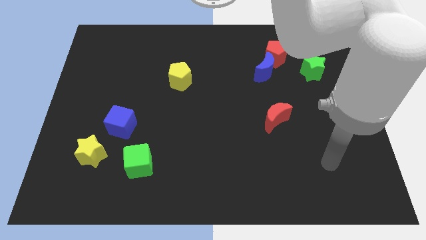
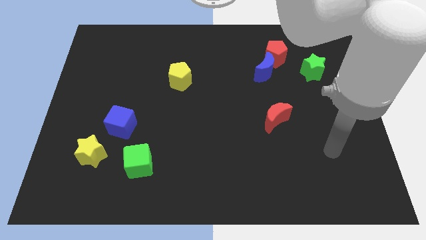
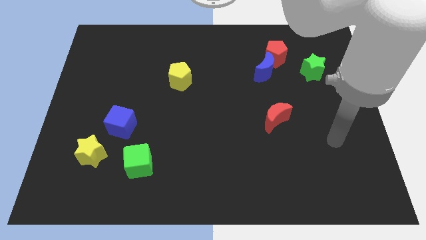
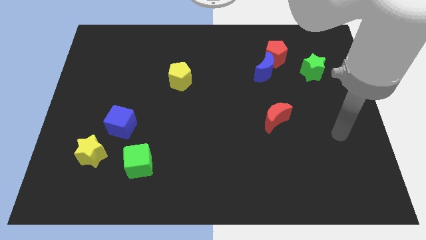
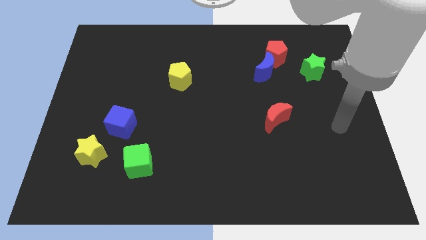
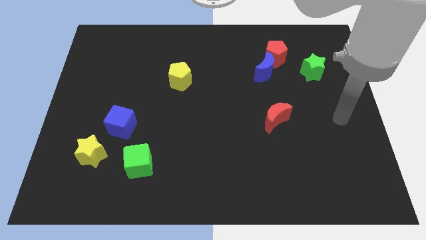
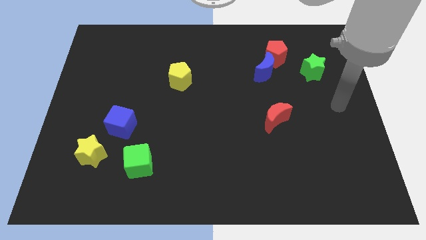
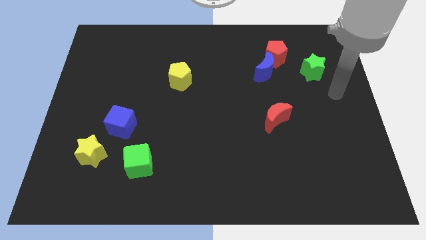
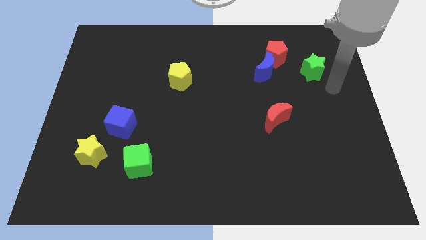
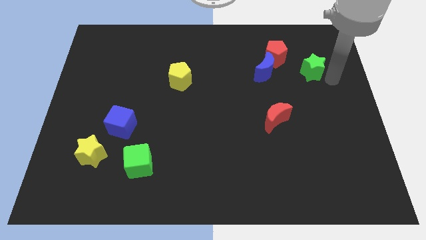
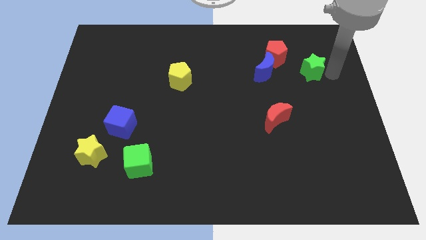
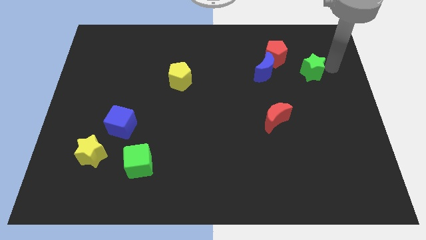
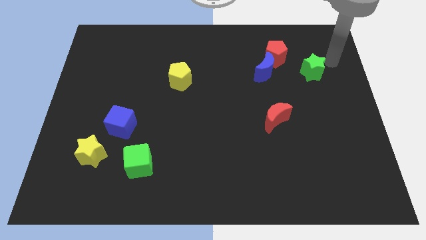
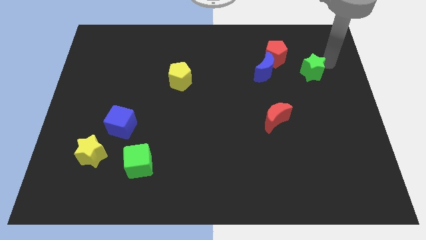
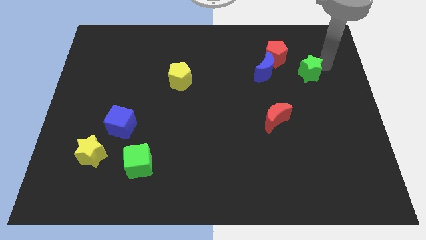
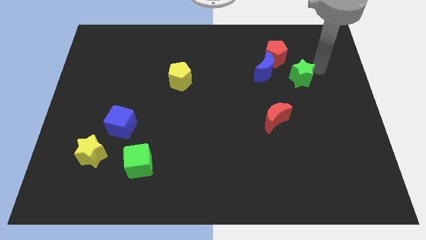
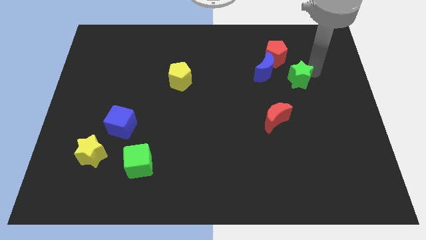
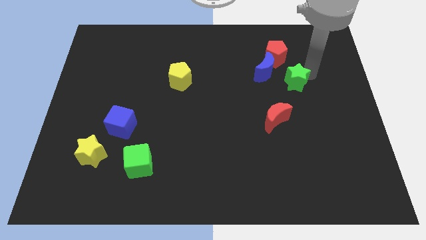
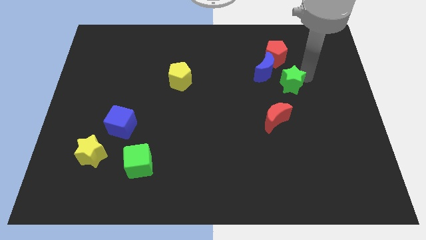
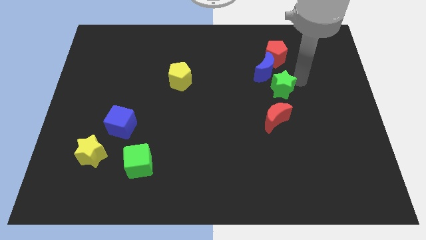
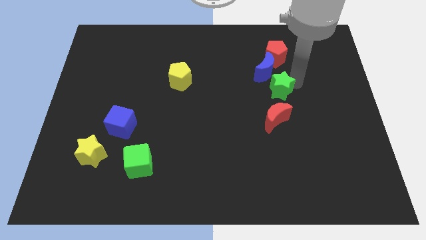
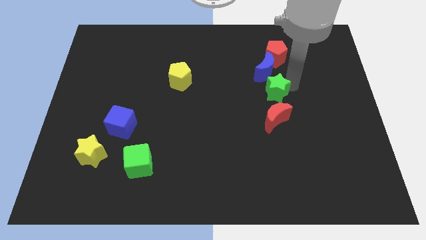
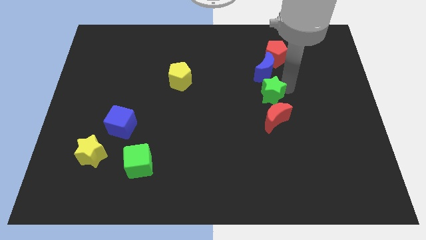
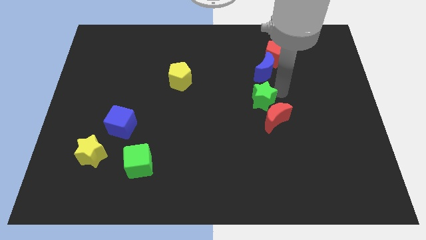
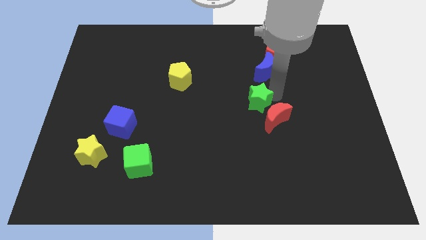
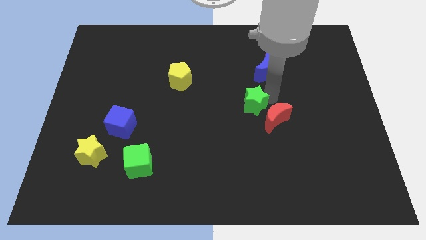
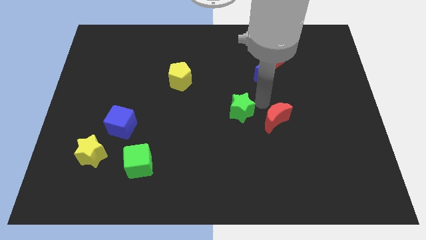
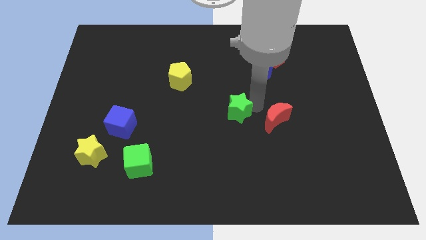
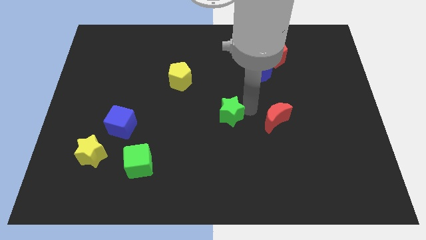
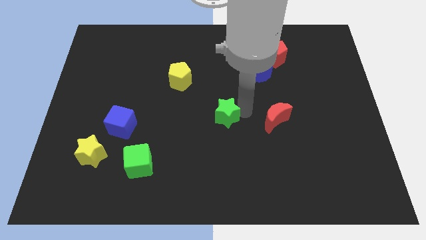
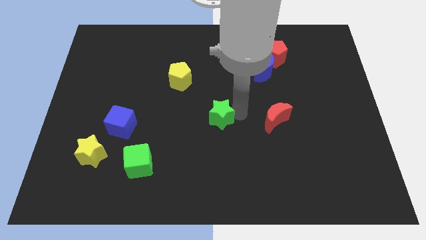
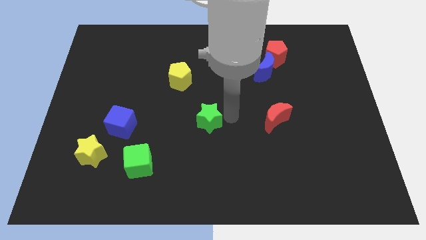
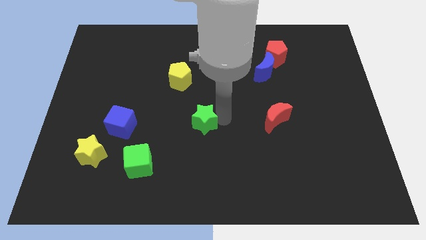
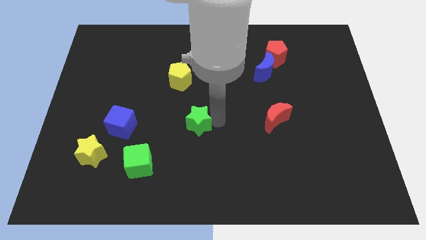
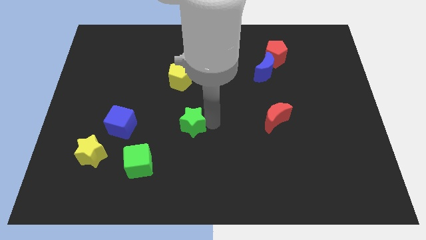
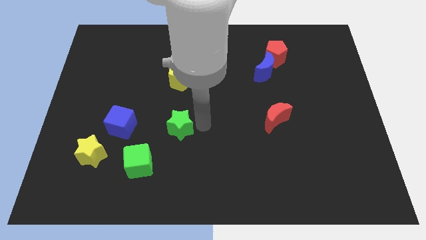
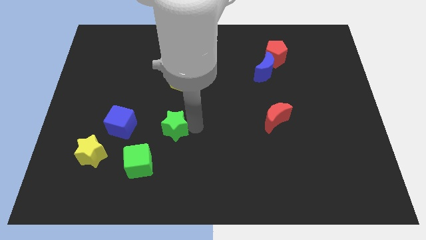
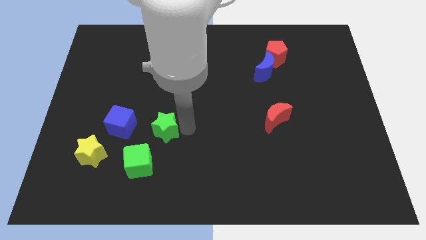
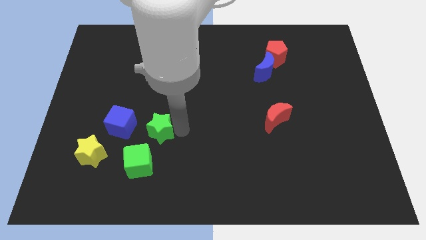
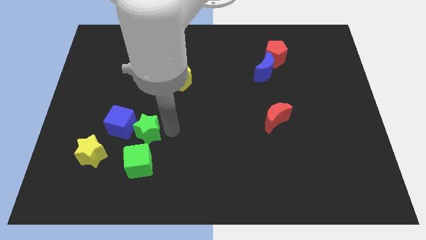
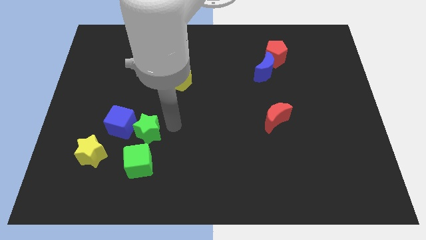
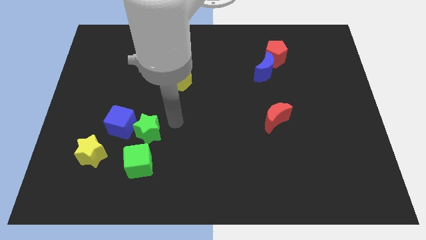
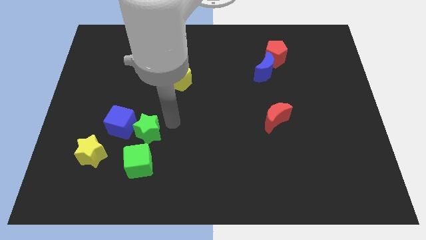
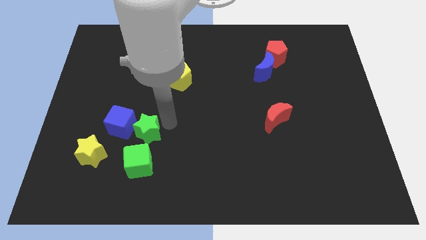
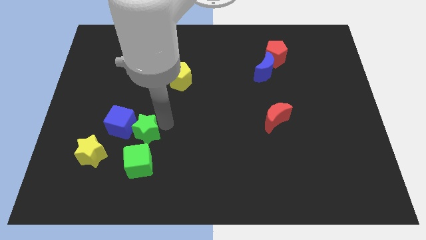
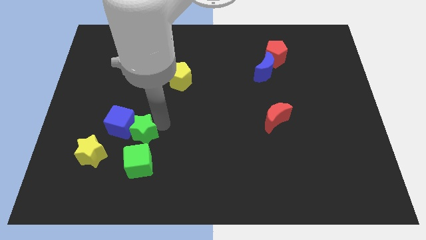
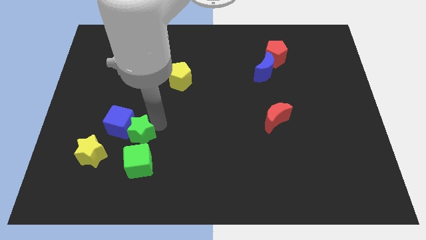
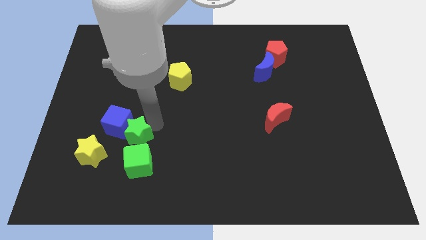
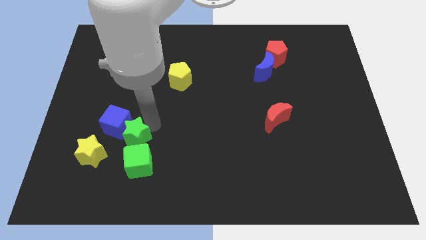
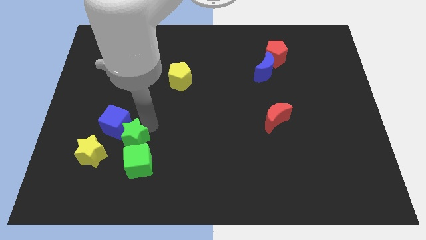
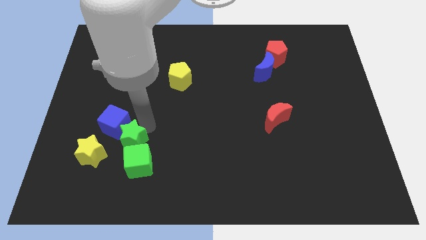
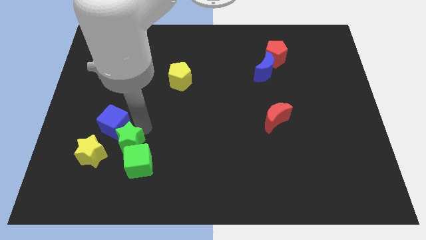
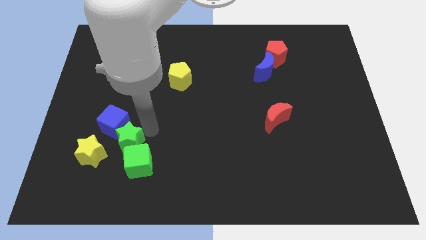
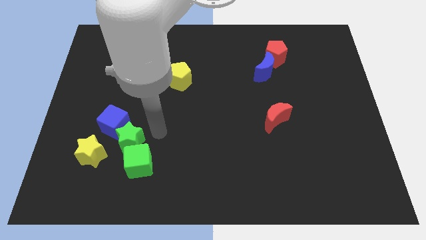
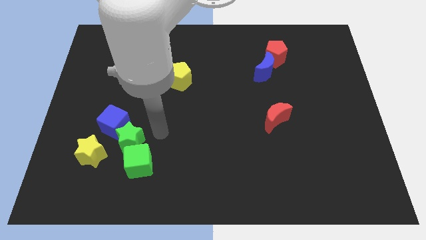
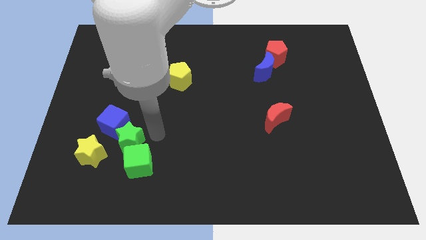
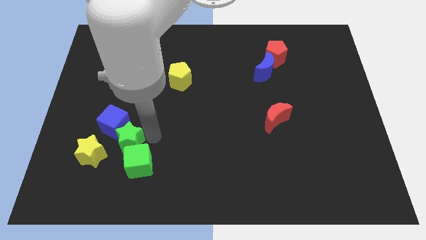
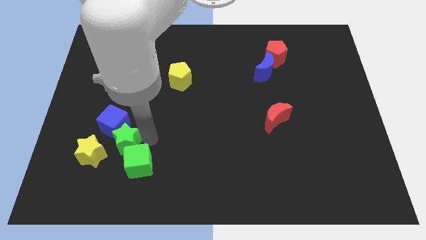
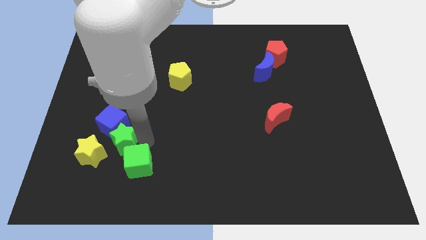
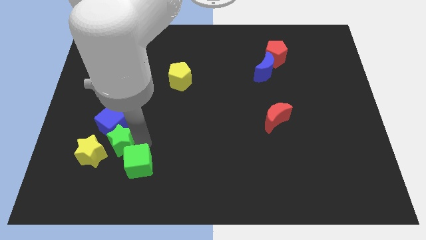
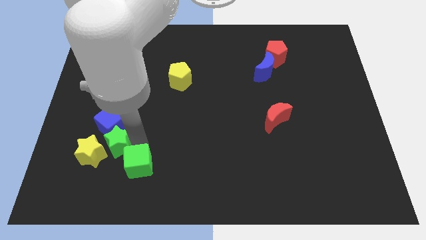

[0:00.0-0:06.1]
put the green star next to the yellow star

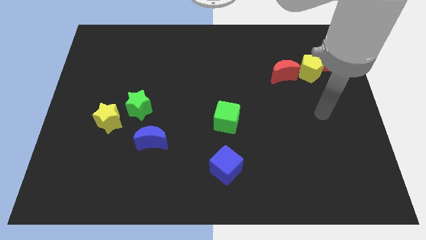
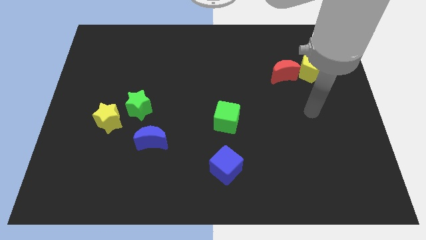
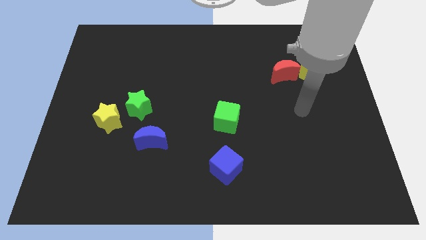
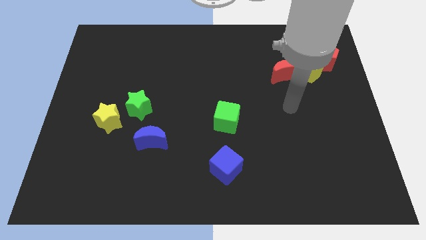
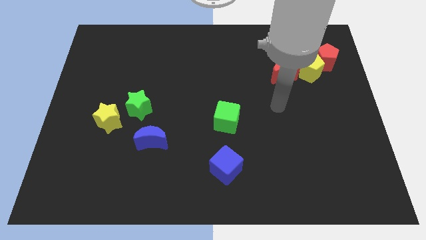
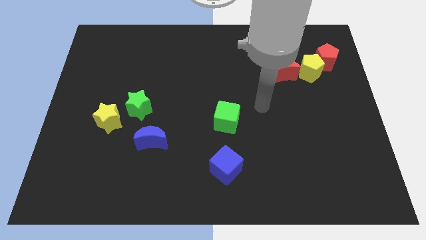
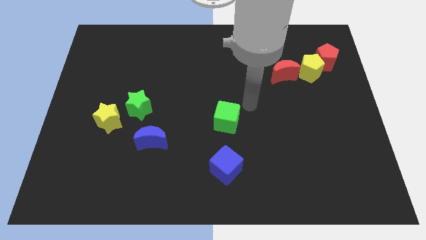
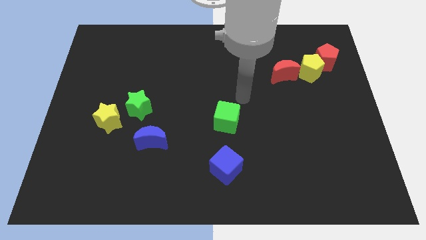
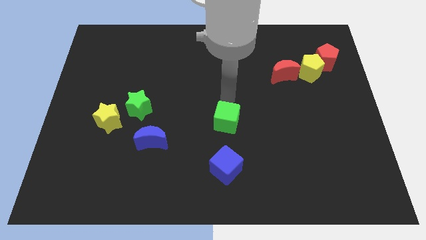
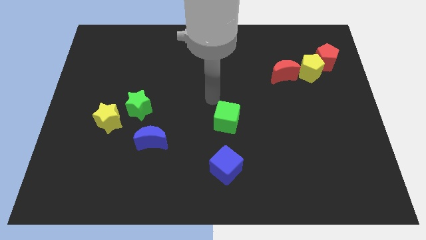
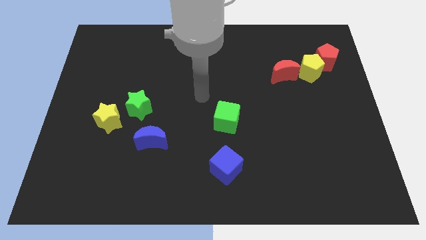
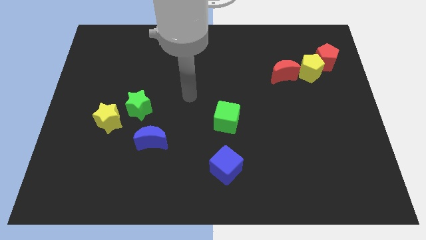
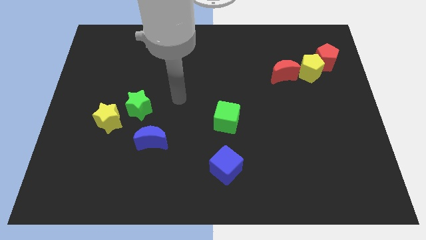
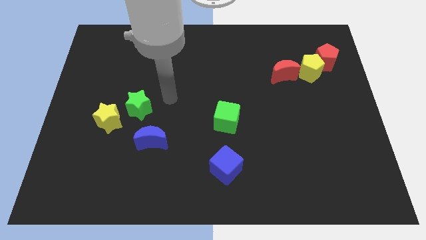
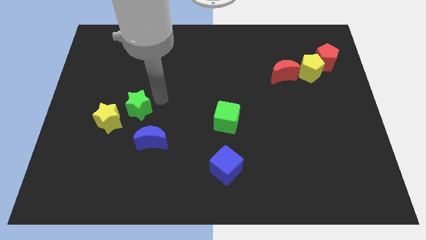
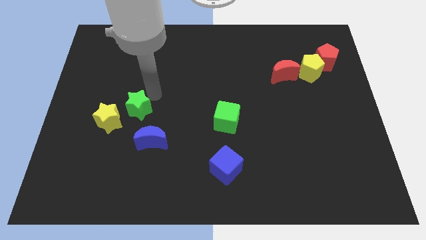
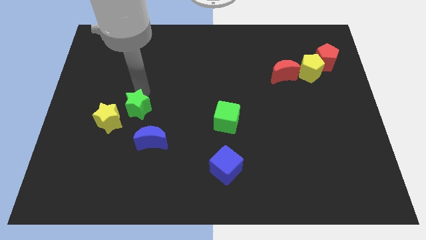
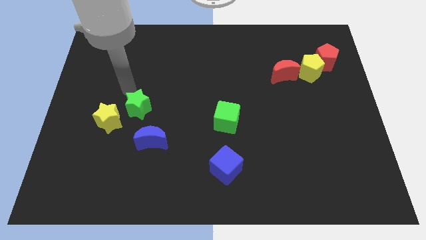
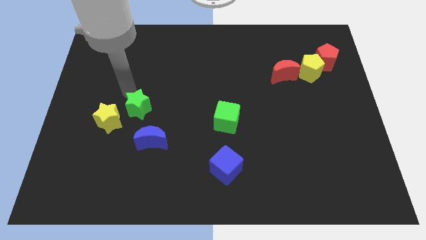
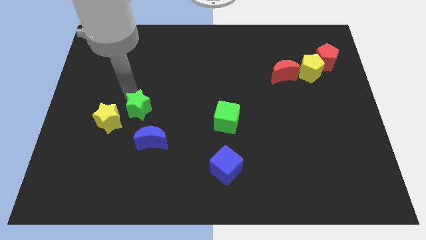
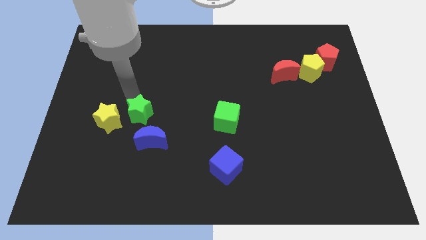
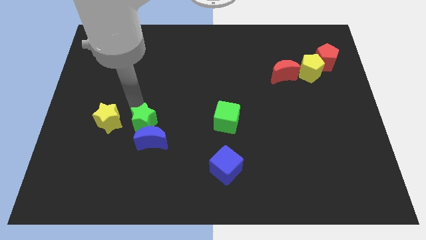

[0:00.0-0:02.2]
slide the green star to the blue moon
